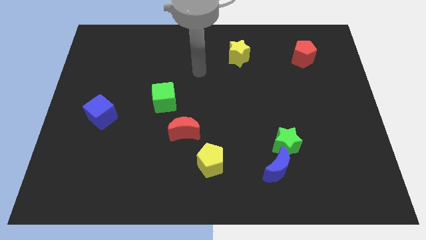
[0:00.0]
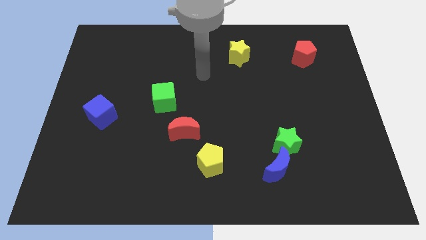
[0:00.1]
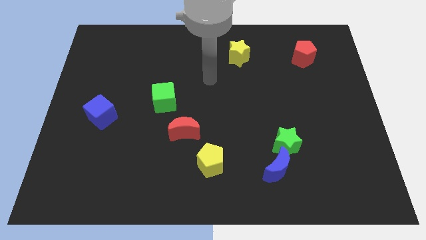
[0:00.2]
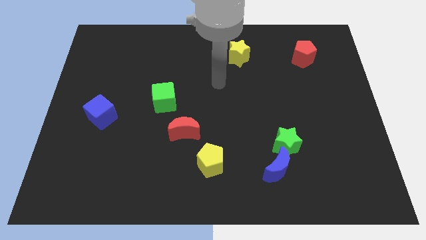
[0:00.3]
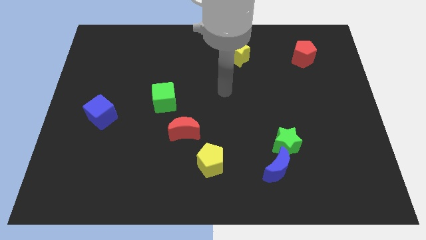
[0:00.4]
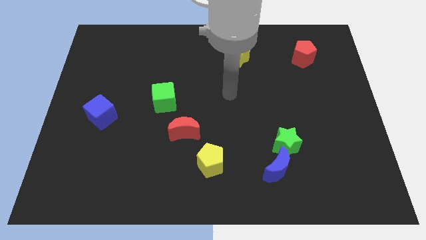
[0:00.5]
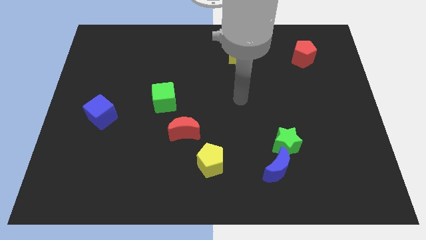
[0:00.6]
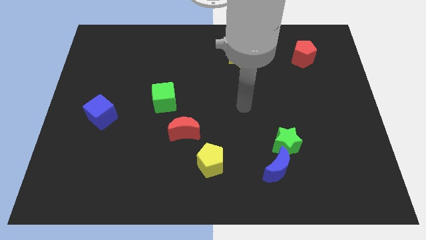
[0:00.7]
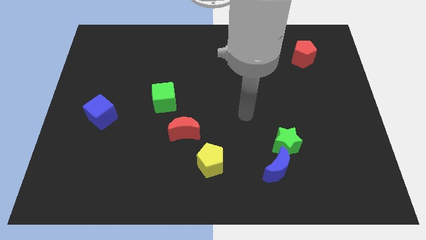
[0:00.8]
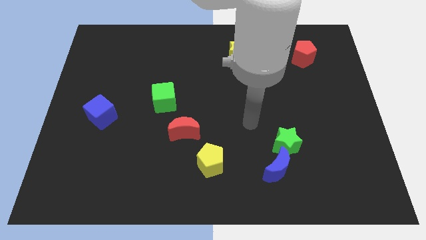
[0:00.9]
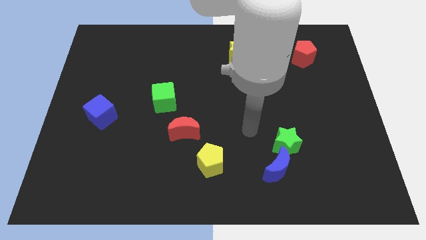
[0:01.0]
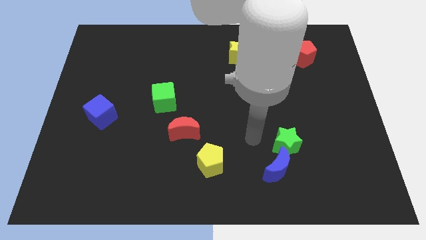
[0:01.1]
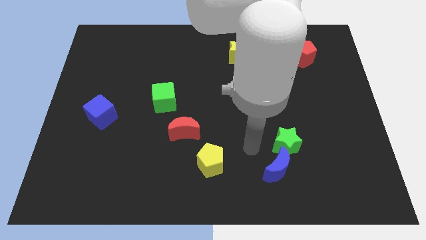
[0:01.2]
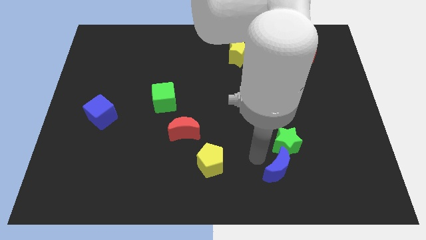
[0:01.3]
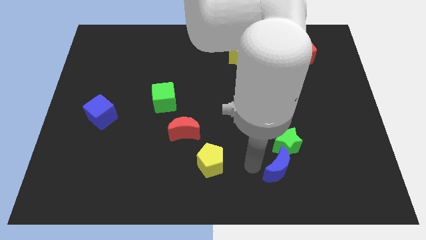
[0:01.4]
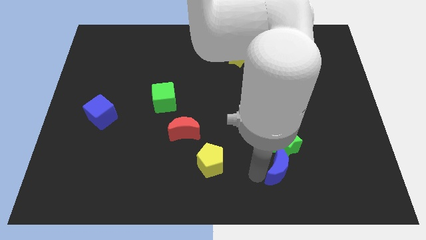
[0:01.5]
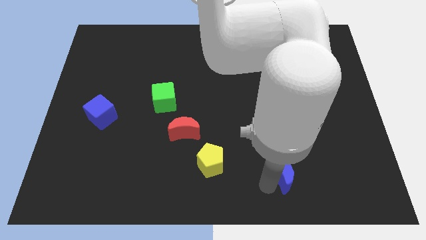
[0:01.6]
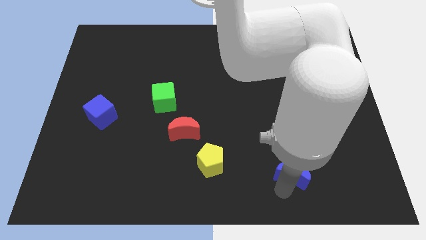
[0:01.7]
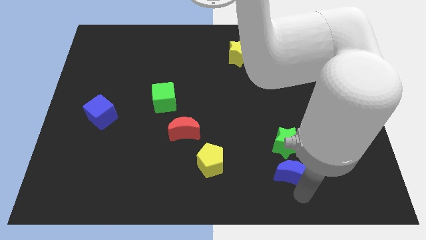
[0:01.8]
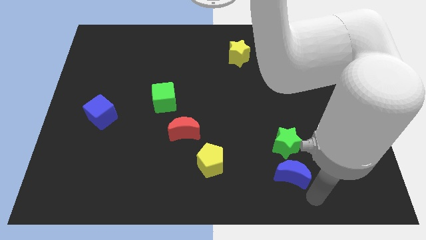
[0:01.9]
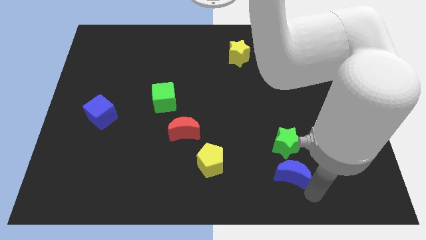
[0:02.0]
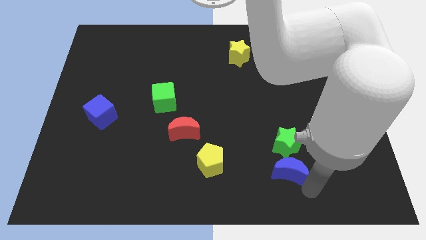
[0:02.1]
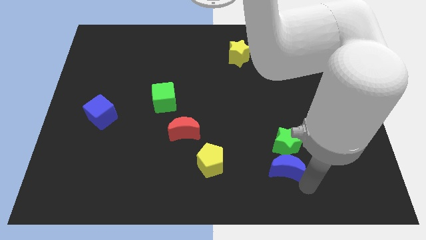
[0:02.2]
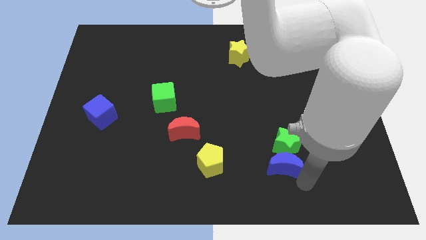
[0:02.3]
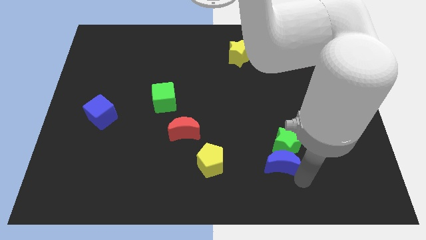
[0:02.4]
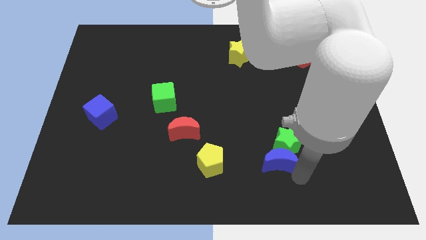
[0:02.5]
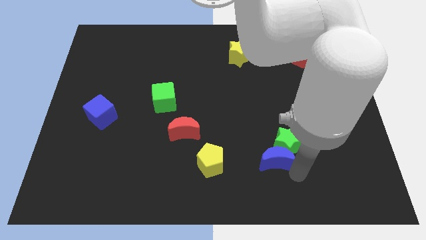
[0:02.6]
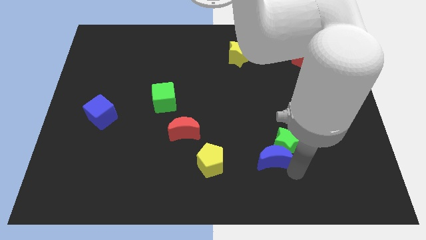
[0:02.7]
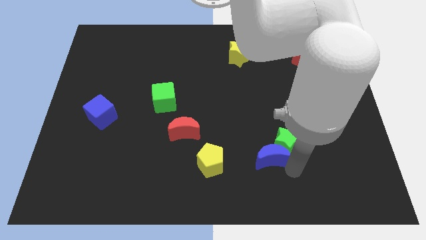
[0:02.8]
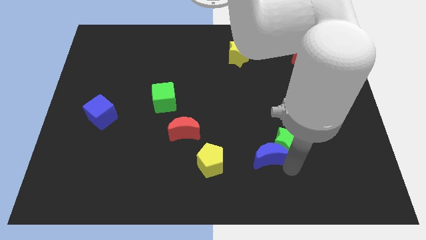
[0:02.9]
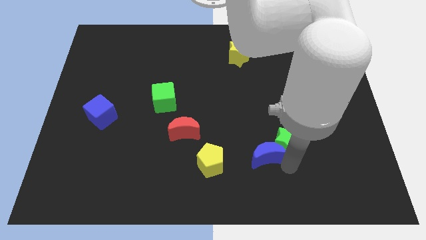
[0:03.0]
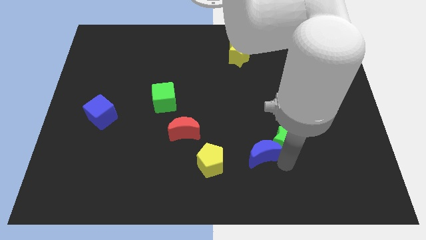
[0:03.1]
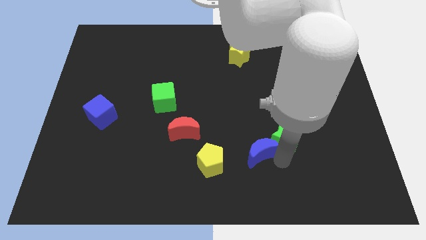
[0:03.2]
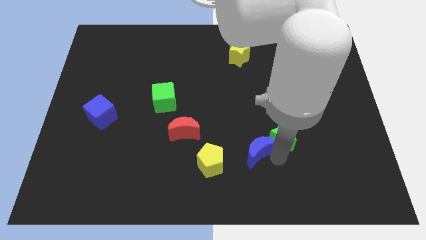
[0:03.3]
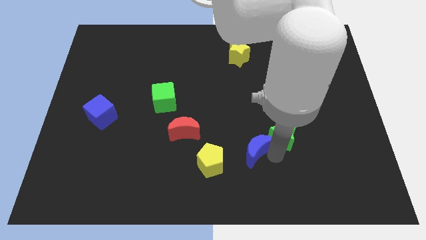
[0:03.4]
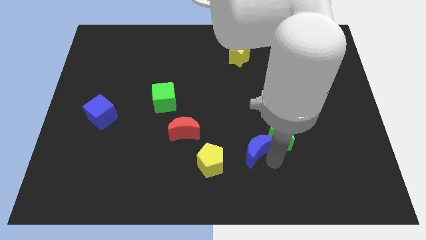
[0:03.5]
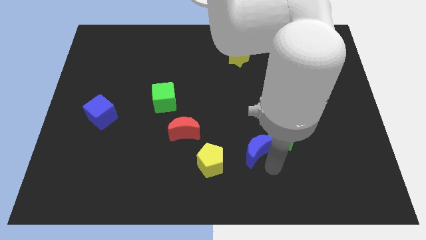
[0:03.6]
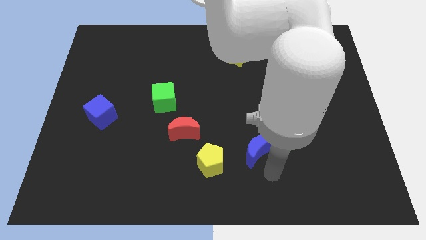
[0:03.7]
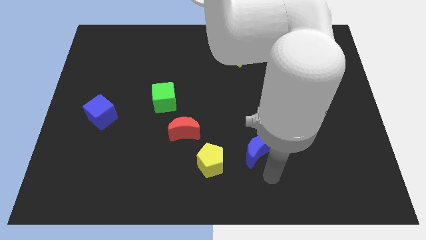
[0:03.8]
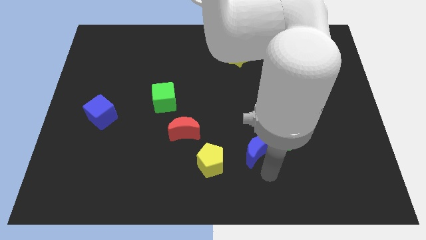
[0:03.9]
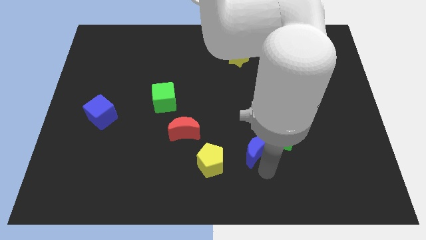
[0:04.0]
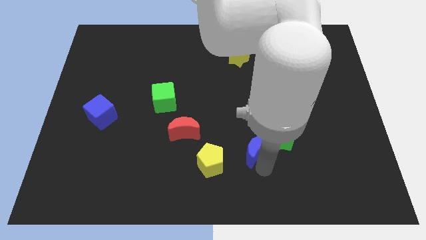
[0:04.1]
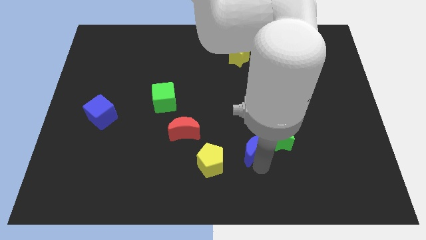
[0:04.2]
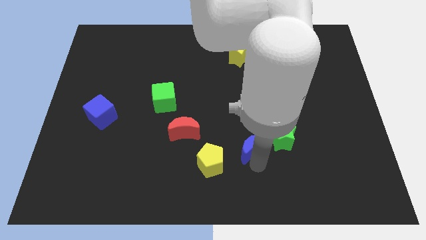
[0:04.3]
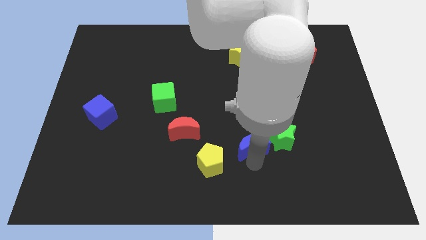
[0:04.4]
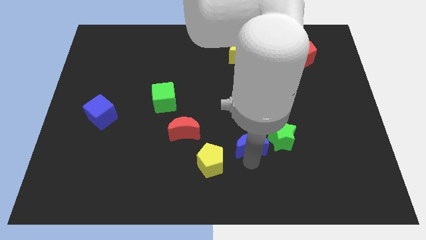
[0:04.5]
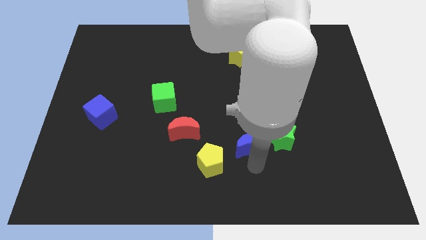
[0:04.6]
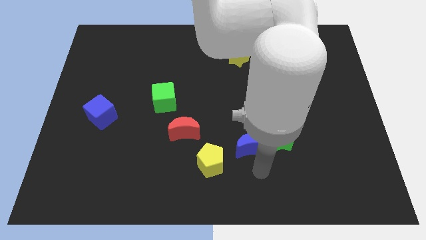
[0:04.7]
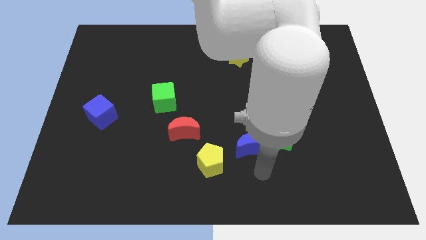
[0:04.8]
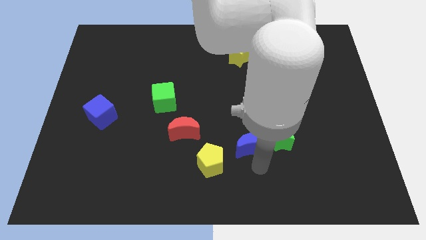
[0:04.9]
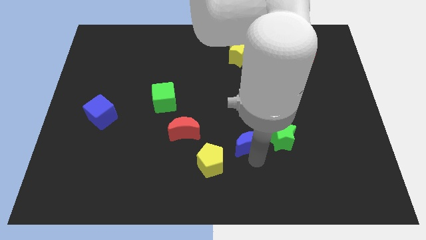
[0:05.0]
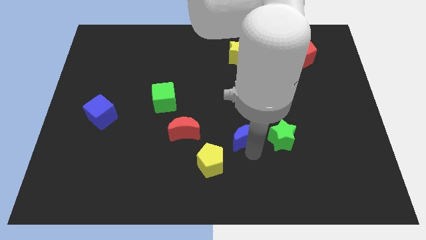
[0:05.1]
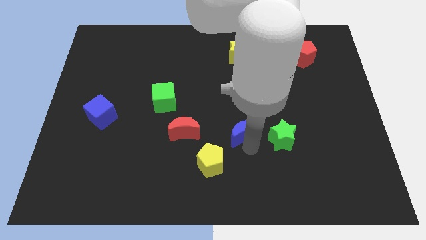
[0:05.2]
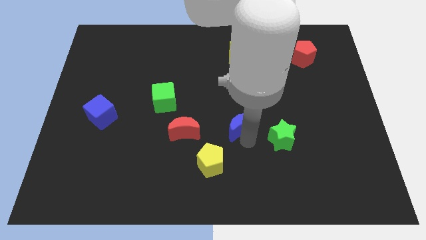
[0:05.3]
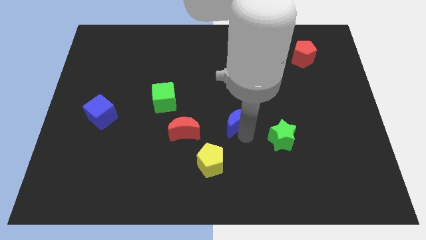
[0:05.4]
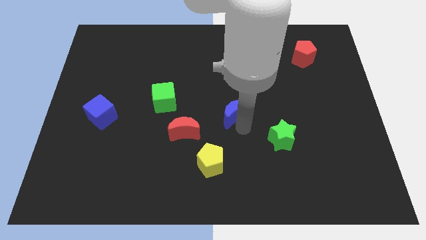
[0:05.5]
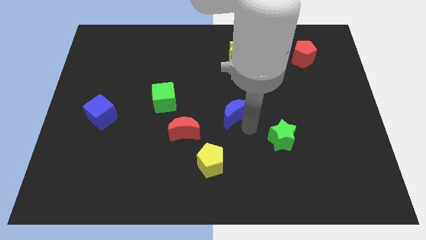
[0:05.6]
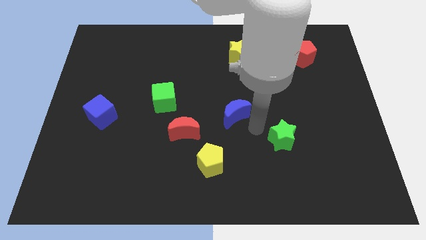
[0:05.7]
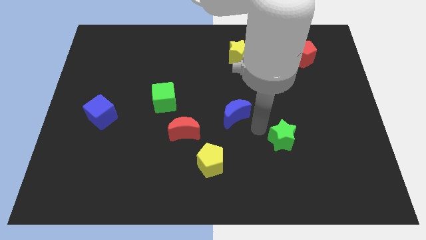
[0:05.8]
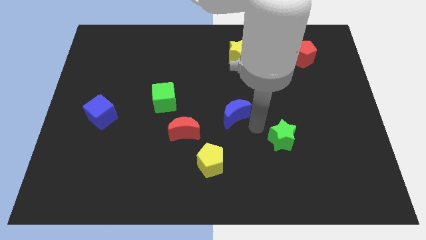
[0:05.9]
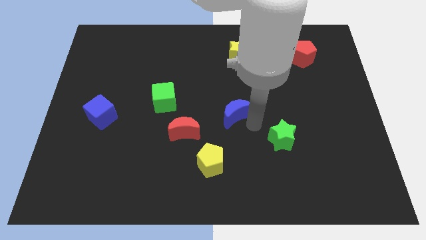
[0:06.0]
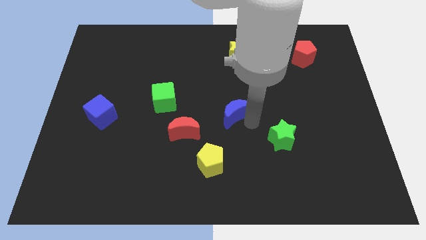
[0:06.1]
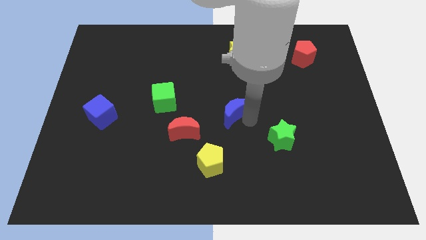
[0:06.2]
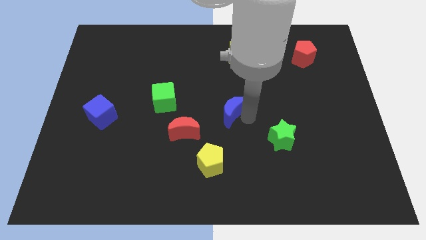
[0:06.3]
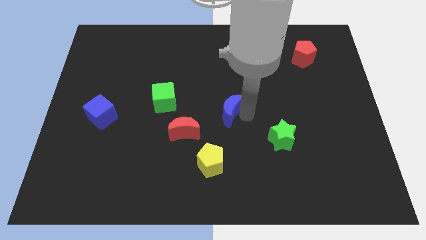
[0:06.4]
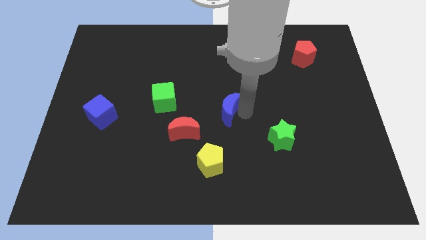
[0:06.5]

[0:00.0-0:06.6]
slide the blue moon right of the green cube

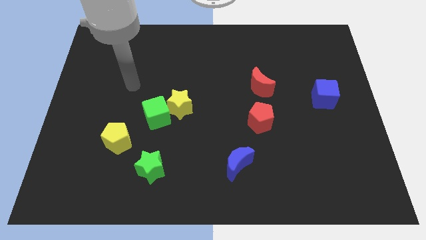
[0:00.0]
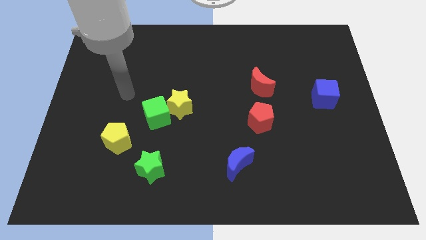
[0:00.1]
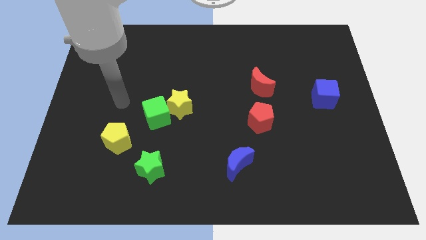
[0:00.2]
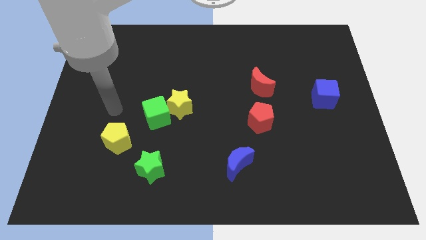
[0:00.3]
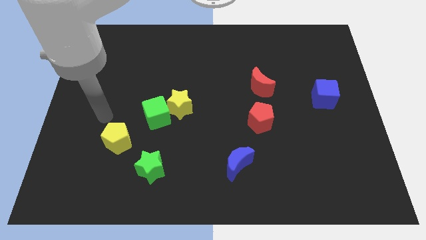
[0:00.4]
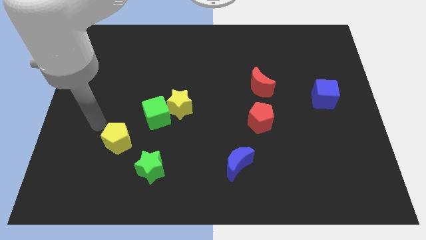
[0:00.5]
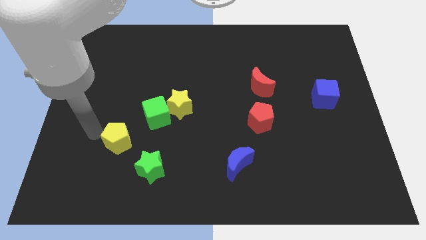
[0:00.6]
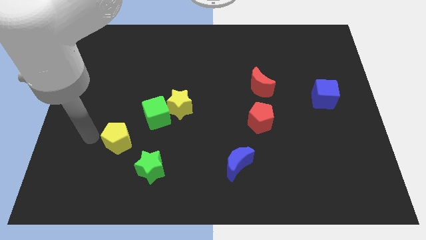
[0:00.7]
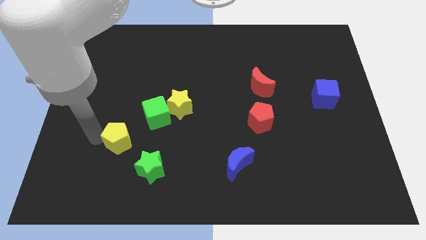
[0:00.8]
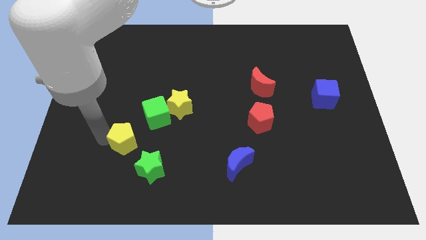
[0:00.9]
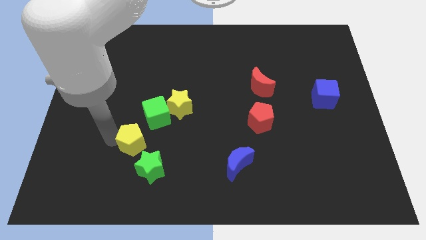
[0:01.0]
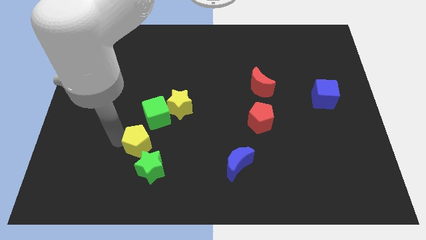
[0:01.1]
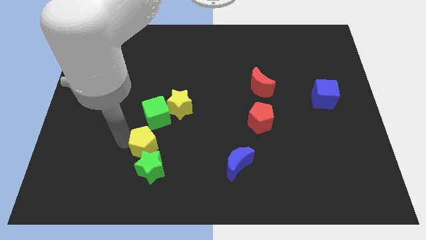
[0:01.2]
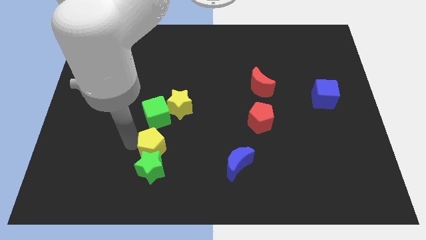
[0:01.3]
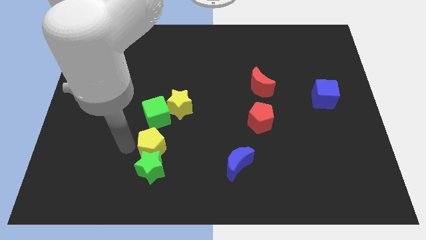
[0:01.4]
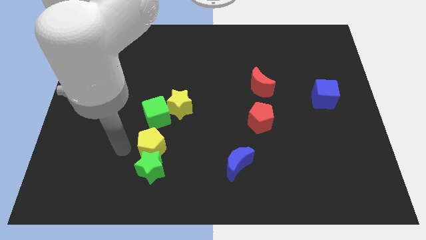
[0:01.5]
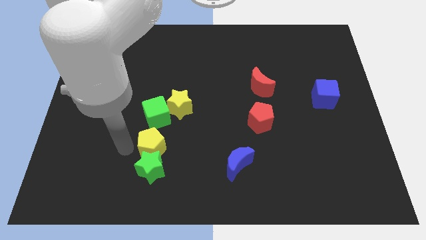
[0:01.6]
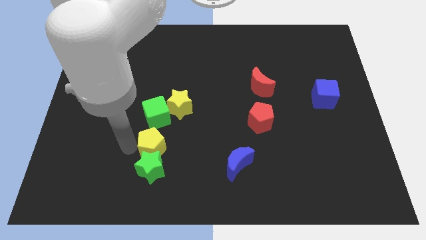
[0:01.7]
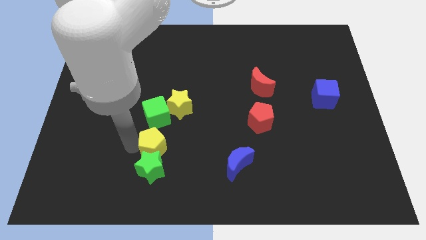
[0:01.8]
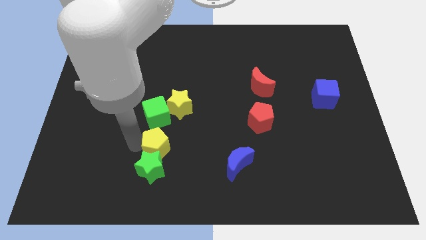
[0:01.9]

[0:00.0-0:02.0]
put the yellow pentagon below the yellow star

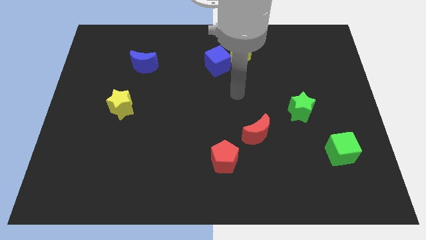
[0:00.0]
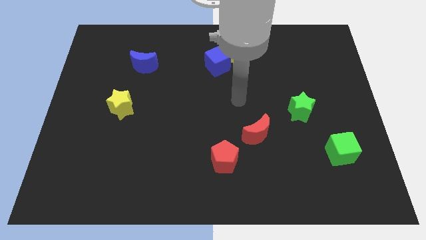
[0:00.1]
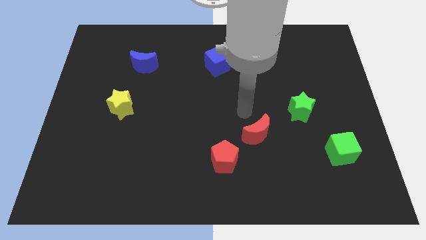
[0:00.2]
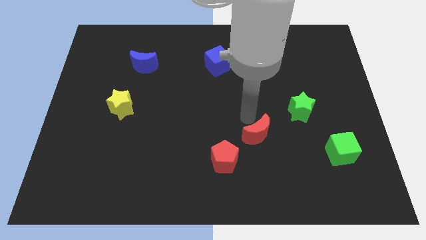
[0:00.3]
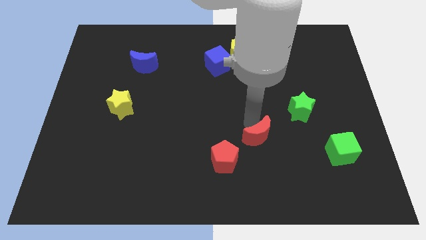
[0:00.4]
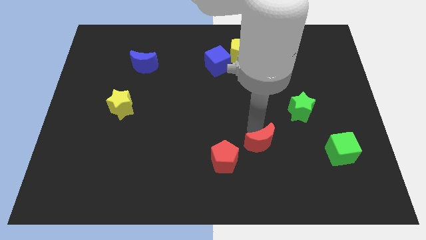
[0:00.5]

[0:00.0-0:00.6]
slide the red moon right of the red pentagon
